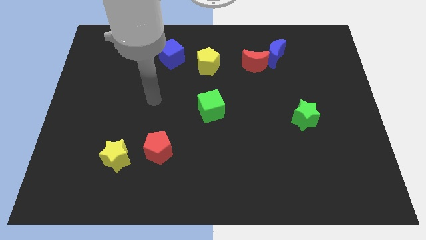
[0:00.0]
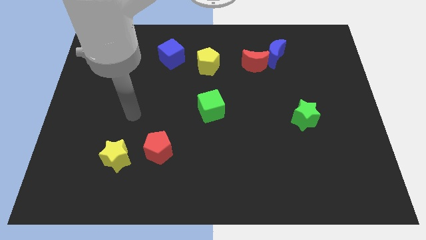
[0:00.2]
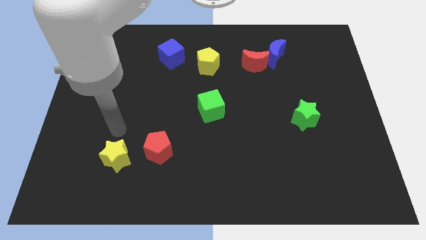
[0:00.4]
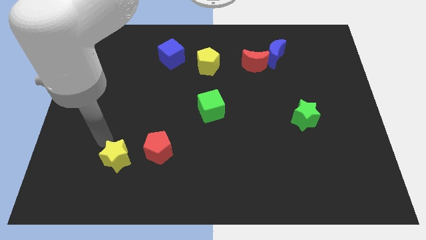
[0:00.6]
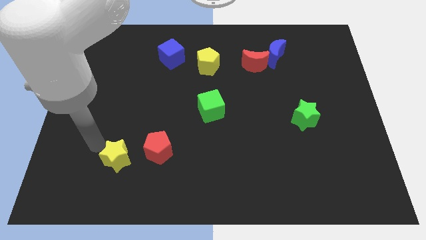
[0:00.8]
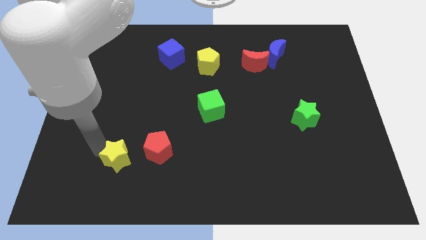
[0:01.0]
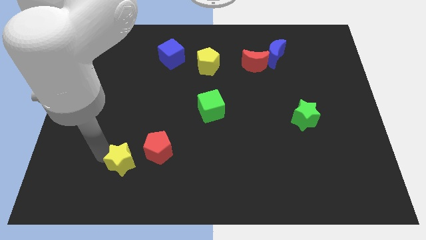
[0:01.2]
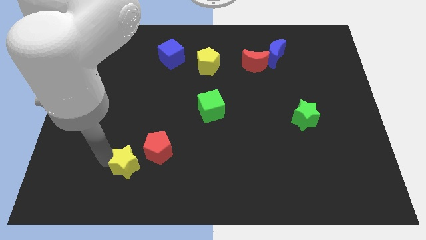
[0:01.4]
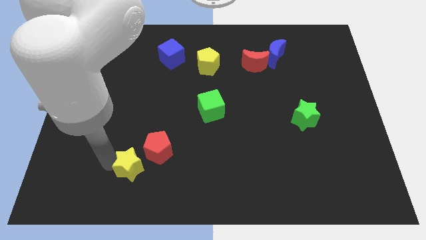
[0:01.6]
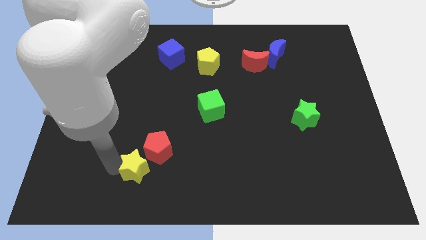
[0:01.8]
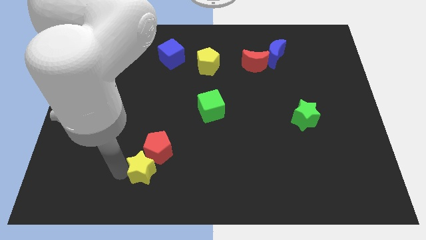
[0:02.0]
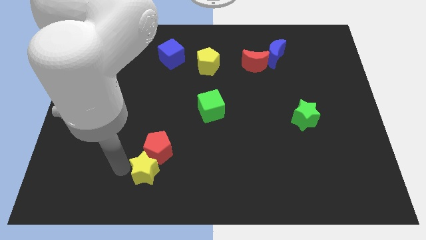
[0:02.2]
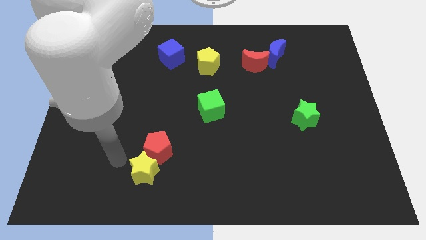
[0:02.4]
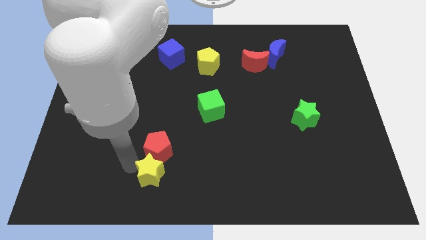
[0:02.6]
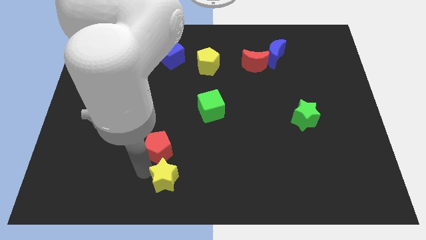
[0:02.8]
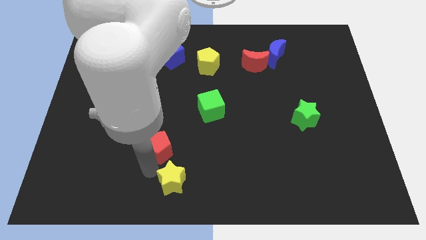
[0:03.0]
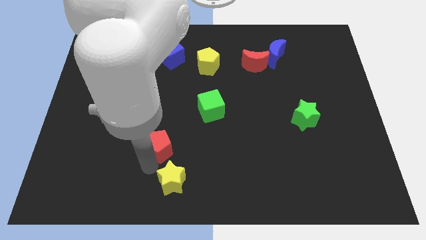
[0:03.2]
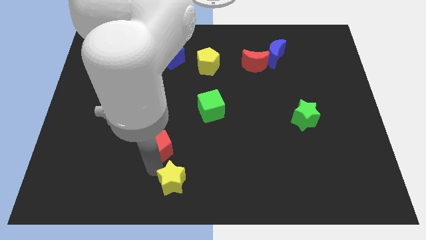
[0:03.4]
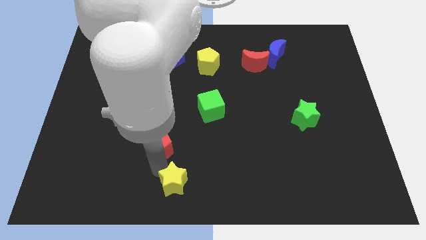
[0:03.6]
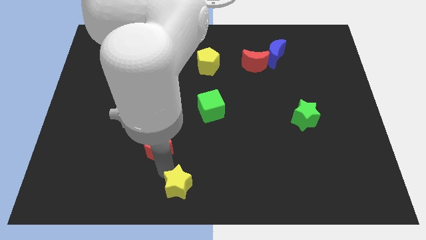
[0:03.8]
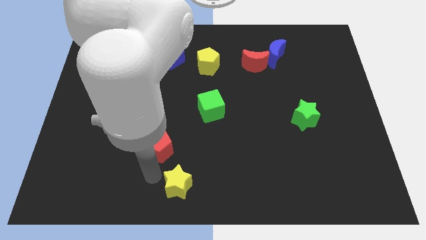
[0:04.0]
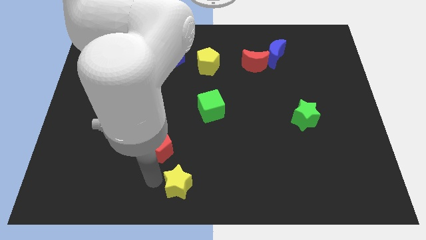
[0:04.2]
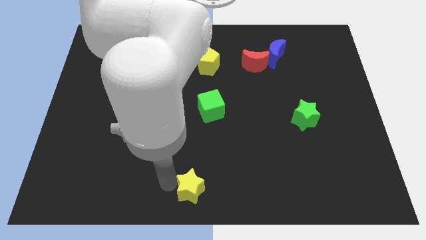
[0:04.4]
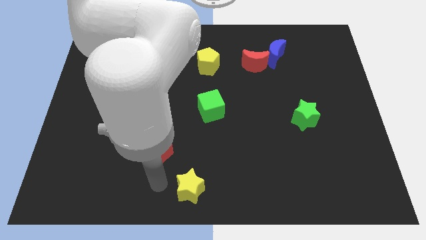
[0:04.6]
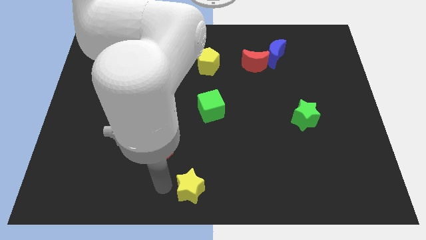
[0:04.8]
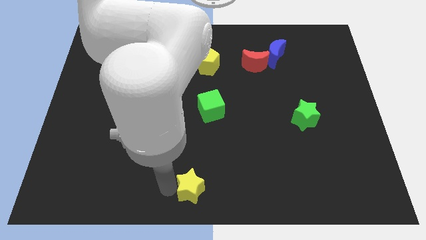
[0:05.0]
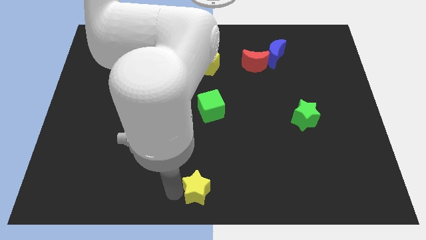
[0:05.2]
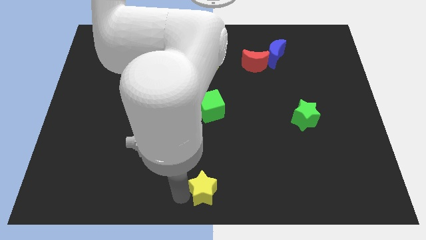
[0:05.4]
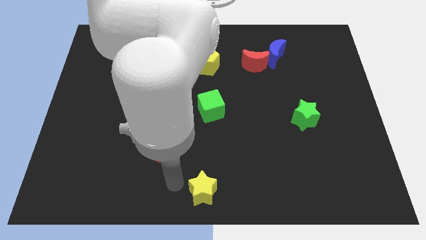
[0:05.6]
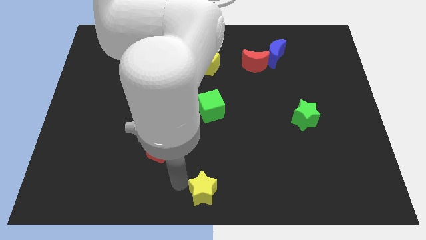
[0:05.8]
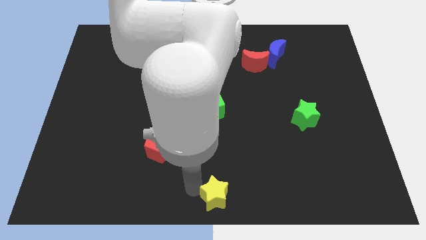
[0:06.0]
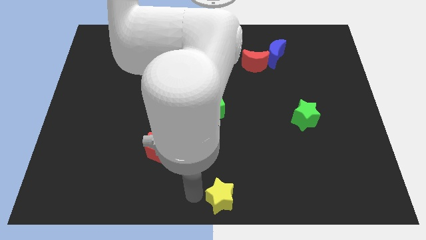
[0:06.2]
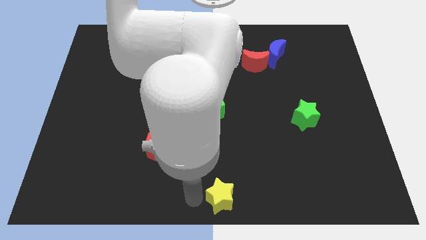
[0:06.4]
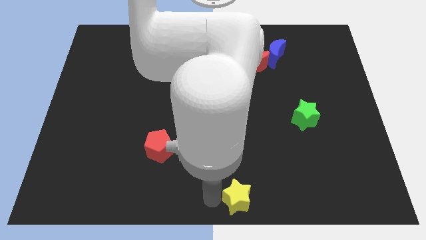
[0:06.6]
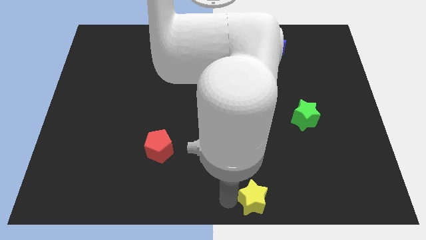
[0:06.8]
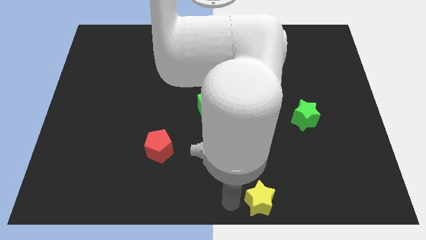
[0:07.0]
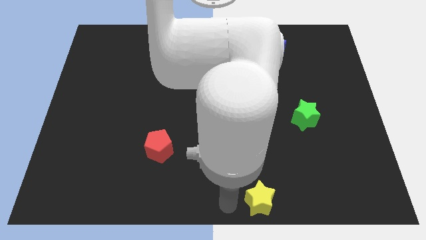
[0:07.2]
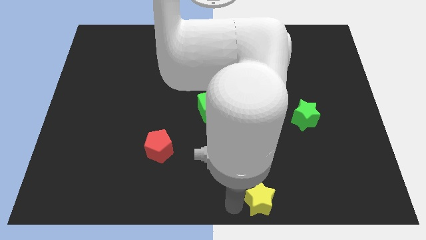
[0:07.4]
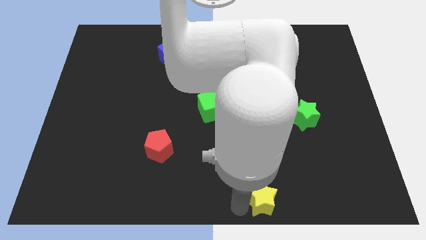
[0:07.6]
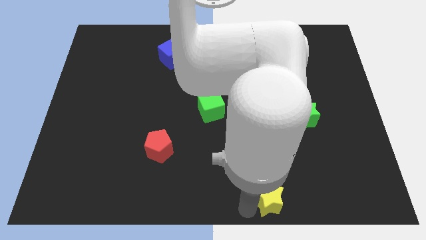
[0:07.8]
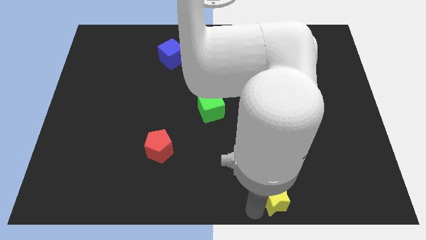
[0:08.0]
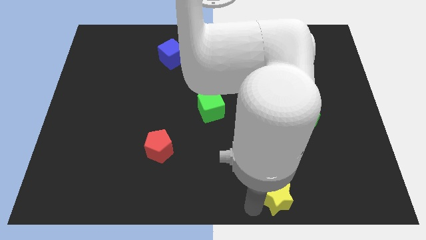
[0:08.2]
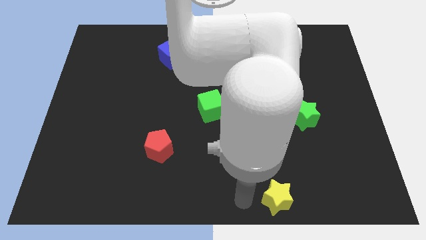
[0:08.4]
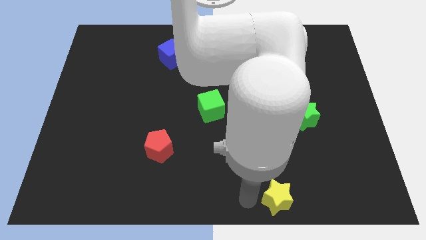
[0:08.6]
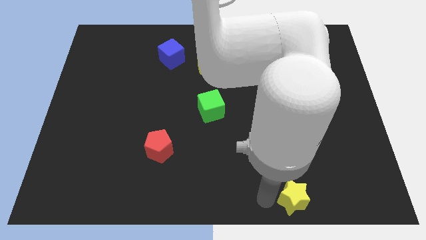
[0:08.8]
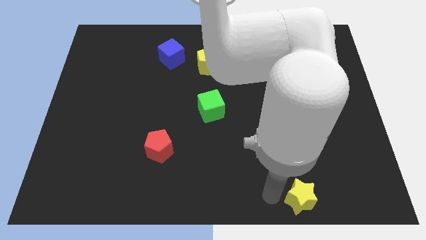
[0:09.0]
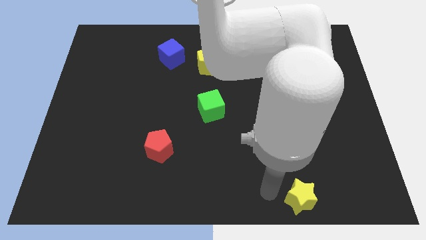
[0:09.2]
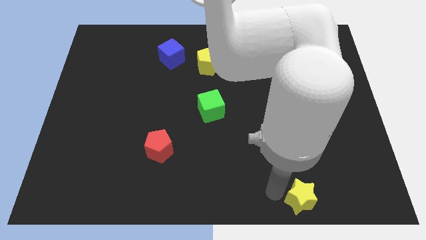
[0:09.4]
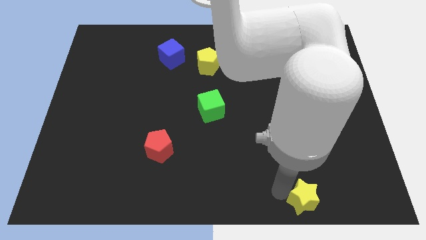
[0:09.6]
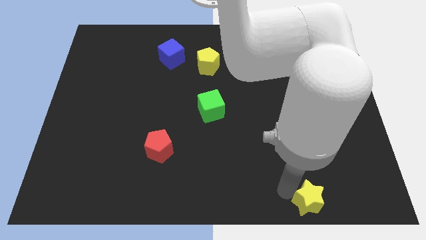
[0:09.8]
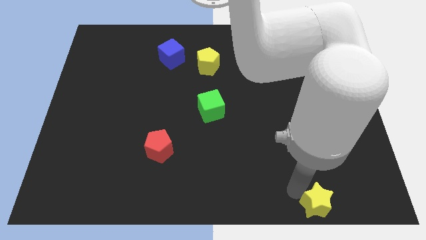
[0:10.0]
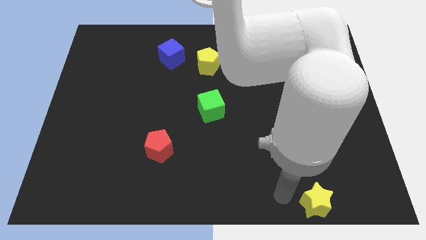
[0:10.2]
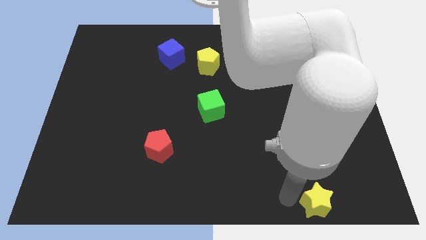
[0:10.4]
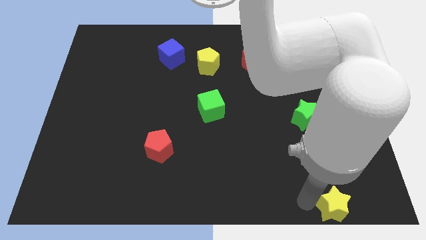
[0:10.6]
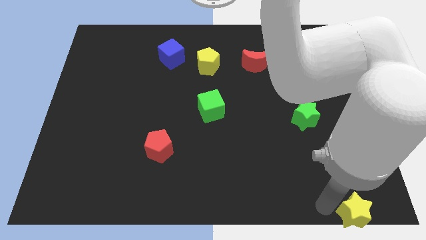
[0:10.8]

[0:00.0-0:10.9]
put the yellow star to the bottom right

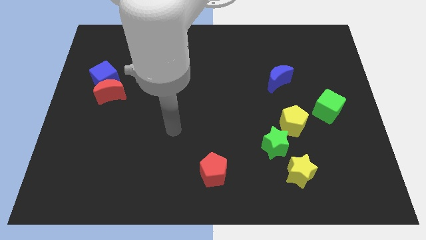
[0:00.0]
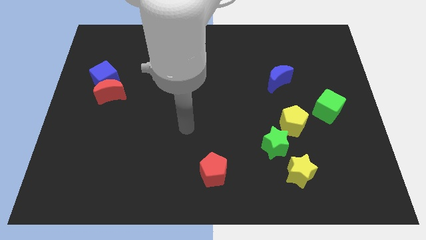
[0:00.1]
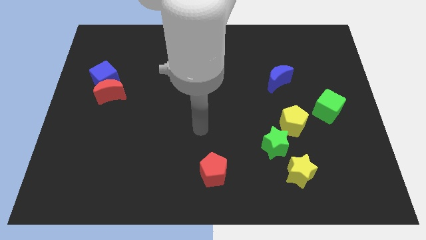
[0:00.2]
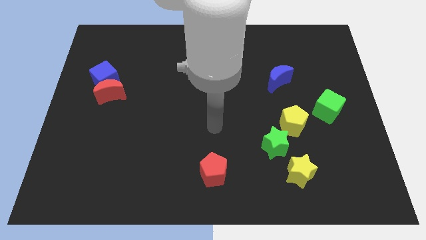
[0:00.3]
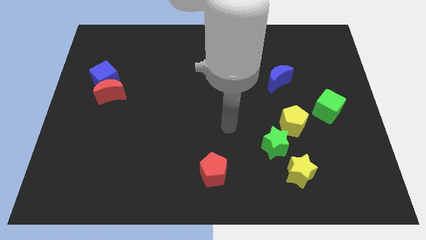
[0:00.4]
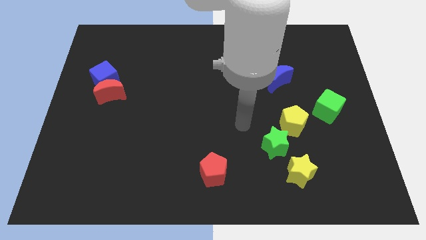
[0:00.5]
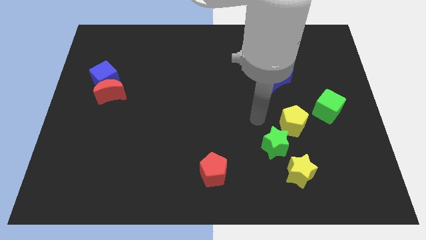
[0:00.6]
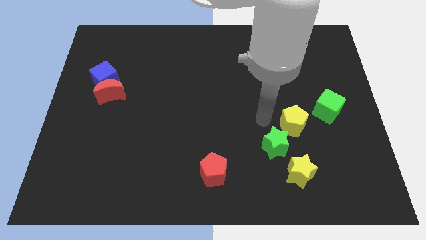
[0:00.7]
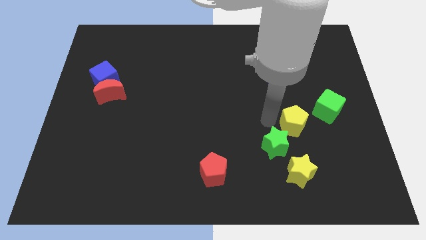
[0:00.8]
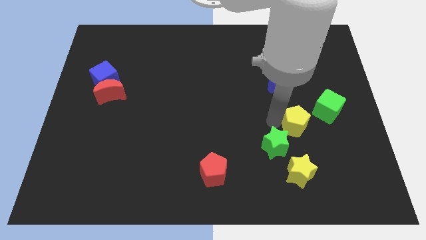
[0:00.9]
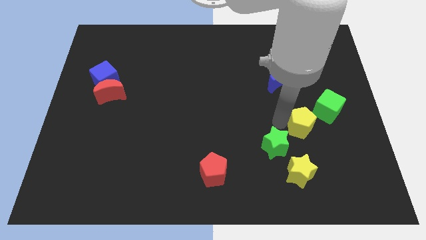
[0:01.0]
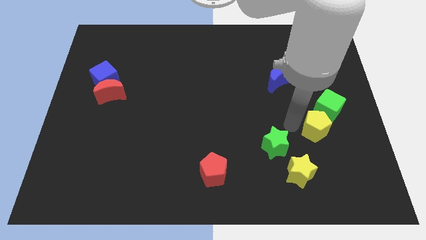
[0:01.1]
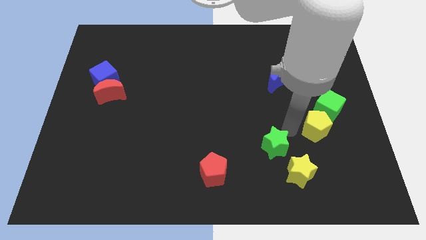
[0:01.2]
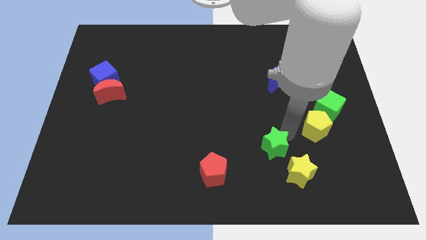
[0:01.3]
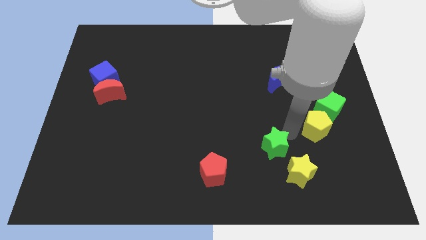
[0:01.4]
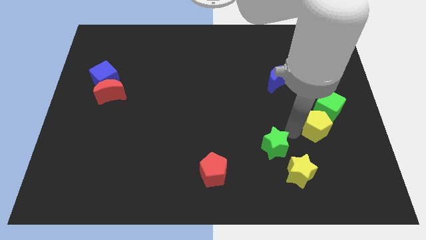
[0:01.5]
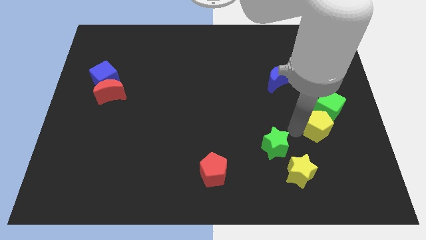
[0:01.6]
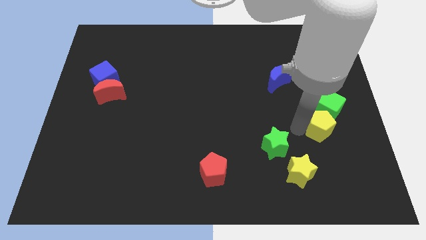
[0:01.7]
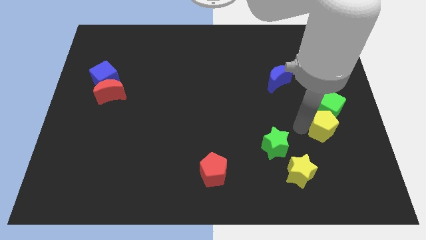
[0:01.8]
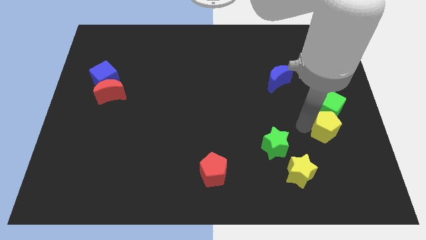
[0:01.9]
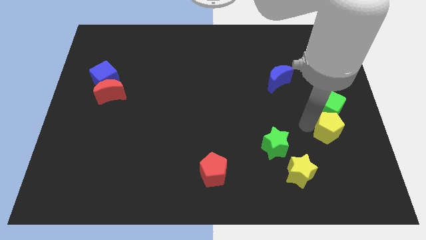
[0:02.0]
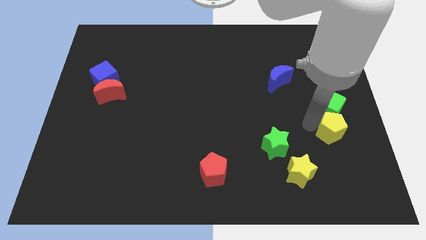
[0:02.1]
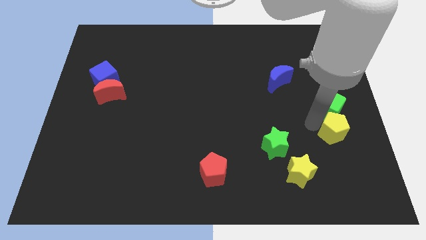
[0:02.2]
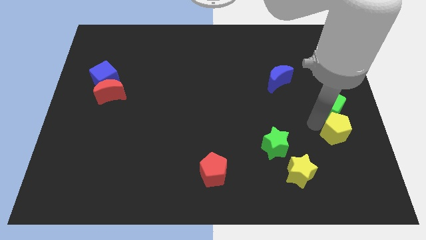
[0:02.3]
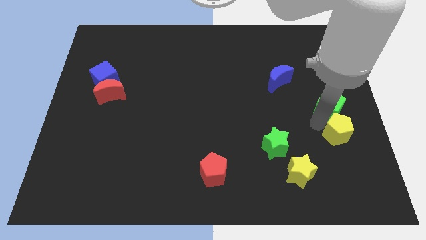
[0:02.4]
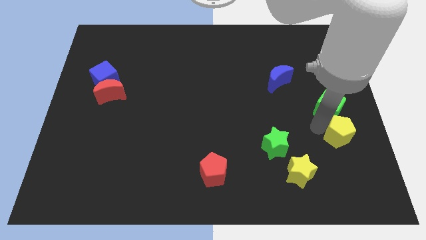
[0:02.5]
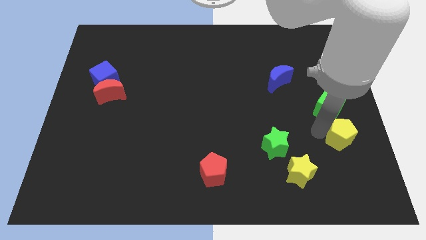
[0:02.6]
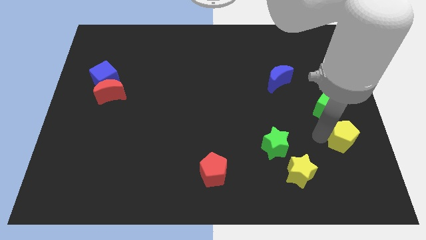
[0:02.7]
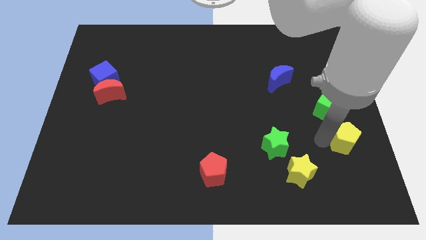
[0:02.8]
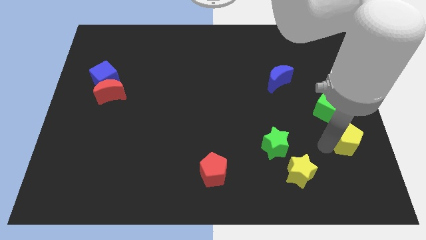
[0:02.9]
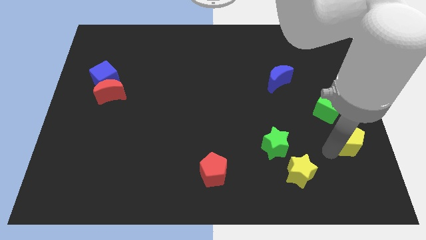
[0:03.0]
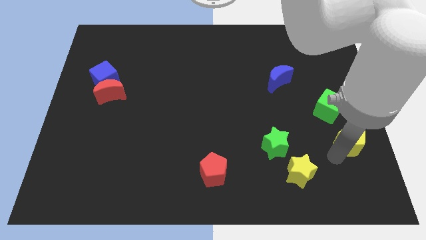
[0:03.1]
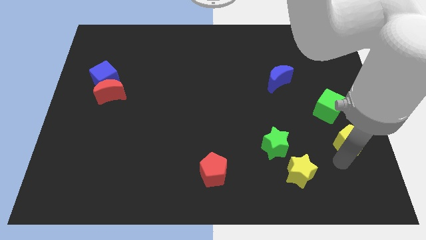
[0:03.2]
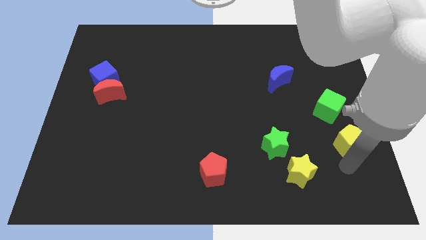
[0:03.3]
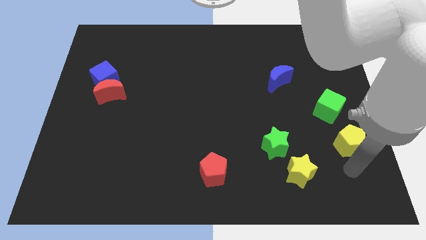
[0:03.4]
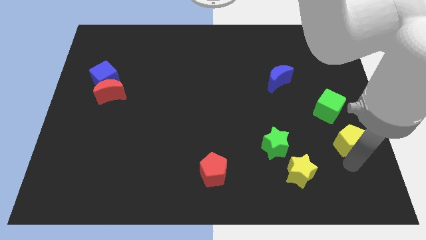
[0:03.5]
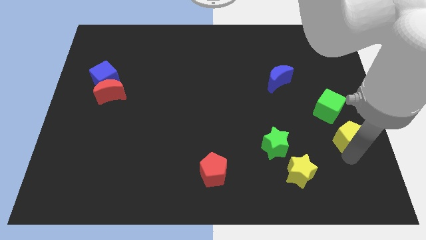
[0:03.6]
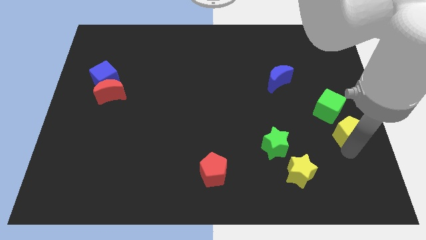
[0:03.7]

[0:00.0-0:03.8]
move the yellow pentagon to the right side of the board
